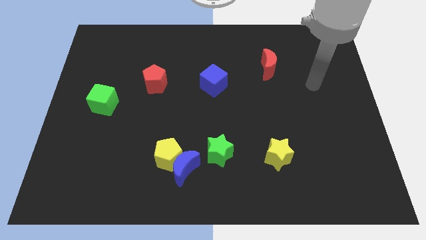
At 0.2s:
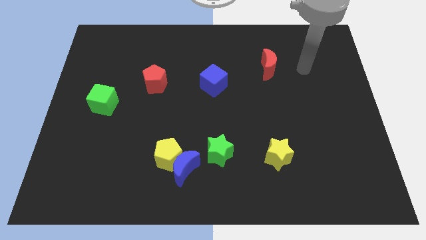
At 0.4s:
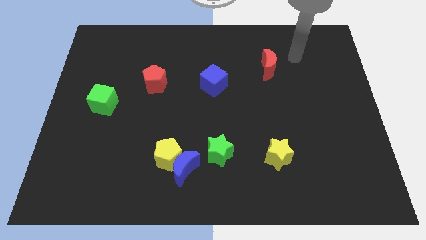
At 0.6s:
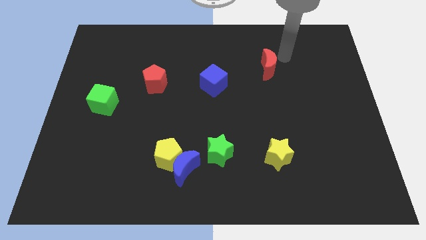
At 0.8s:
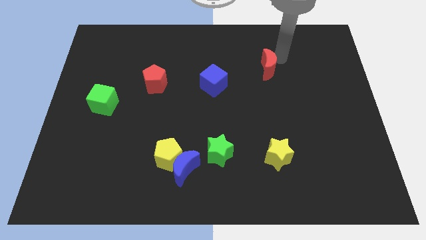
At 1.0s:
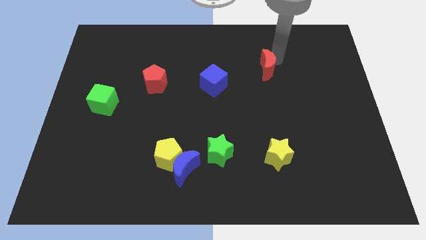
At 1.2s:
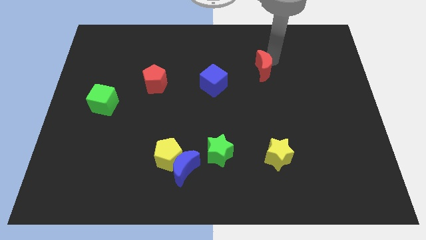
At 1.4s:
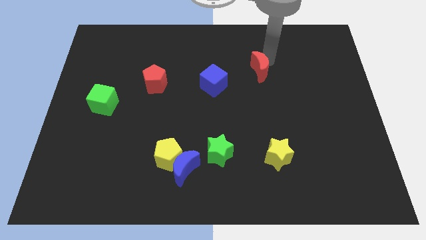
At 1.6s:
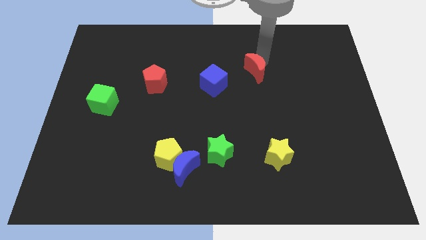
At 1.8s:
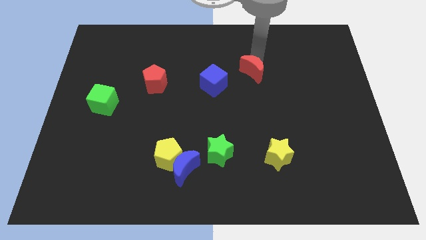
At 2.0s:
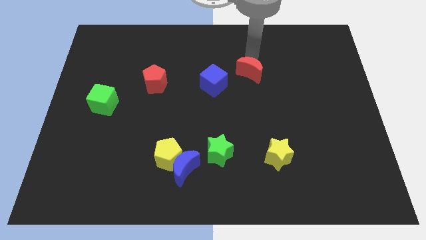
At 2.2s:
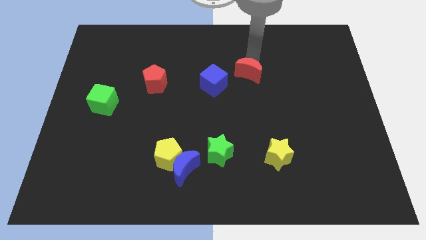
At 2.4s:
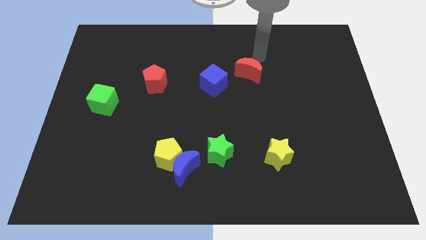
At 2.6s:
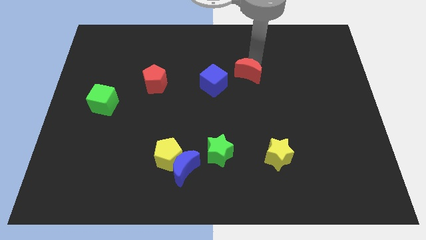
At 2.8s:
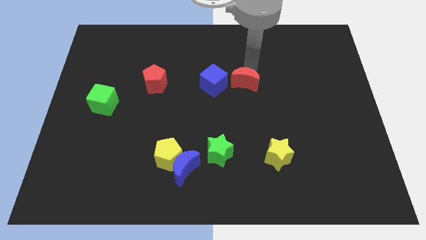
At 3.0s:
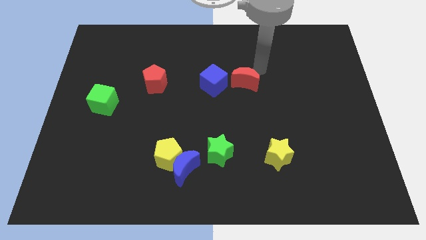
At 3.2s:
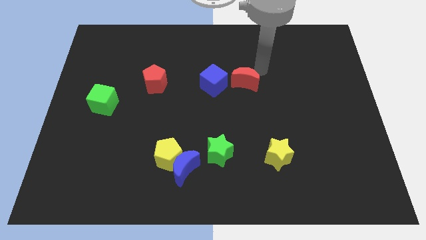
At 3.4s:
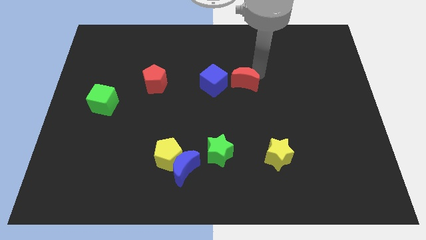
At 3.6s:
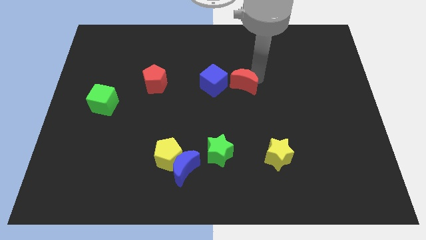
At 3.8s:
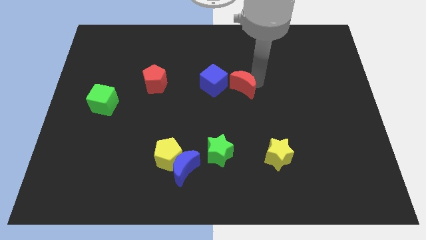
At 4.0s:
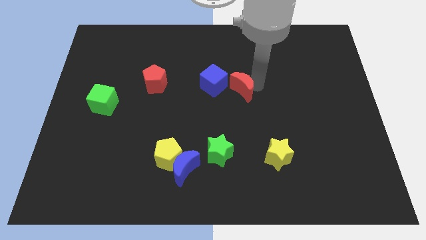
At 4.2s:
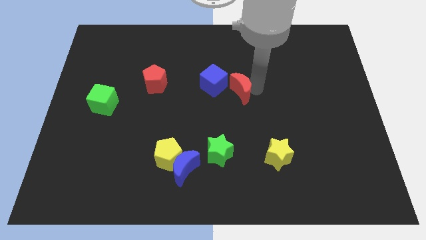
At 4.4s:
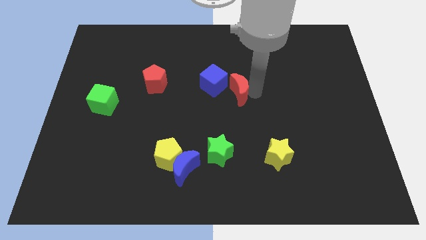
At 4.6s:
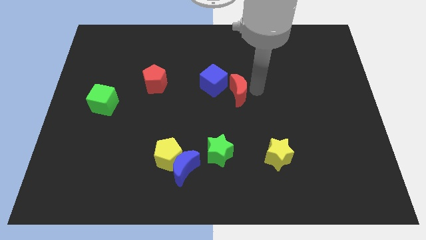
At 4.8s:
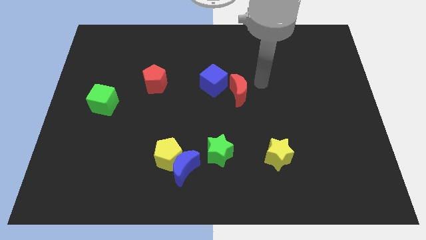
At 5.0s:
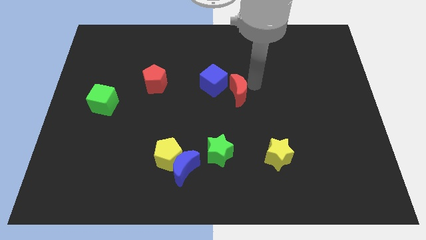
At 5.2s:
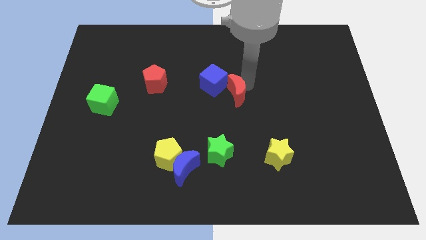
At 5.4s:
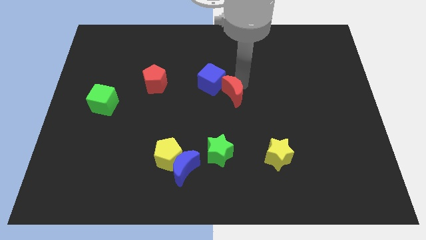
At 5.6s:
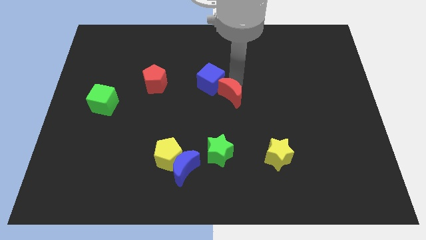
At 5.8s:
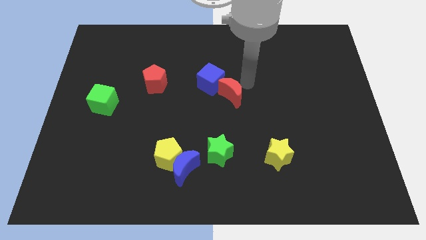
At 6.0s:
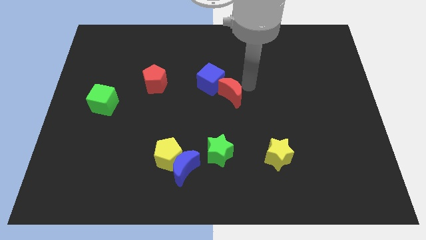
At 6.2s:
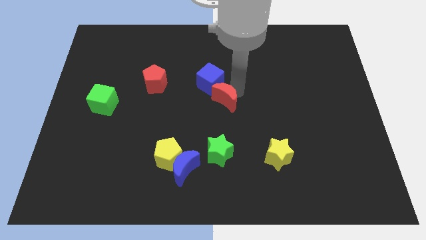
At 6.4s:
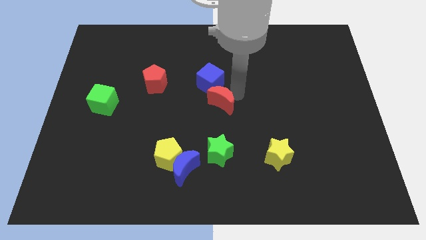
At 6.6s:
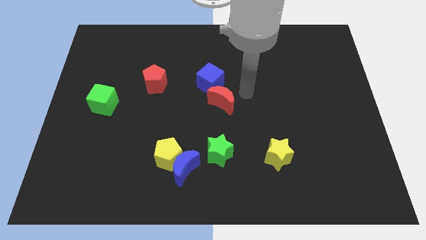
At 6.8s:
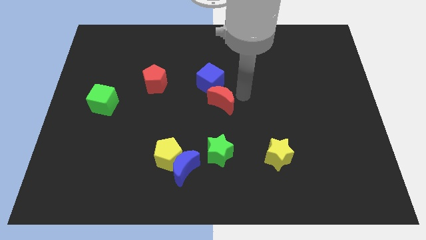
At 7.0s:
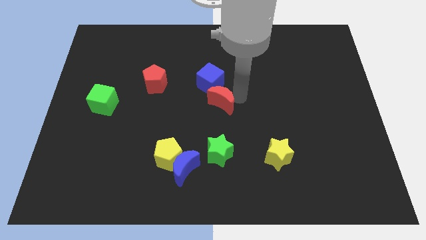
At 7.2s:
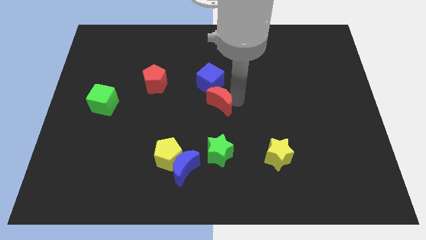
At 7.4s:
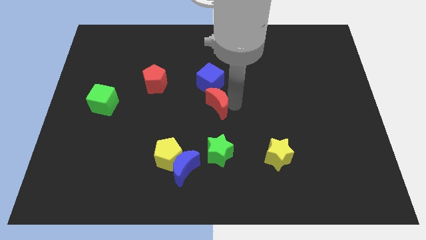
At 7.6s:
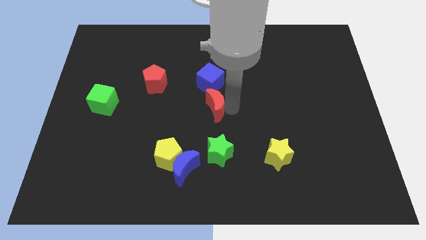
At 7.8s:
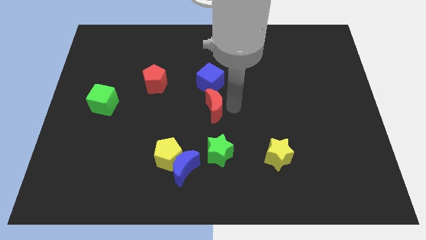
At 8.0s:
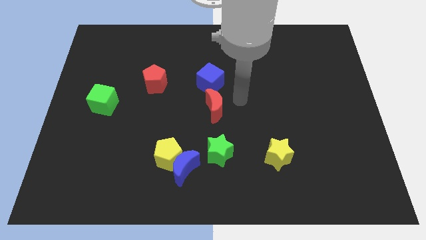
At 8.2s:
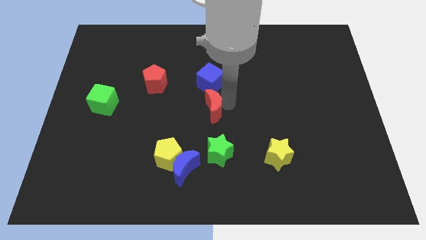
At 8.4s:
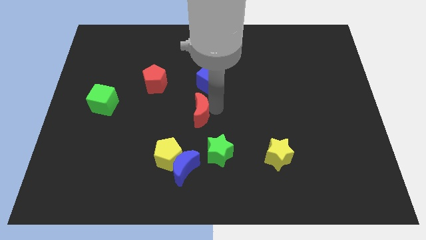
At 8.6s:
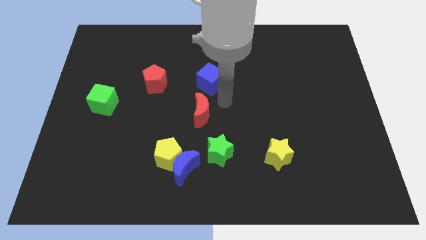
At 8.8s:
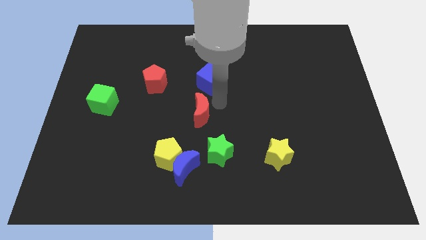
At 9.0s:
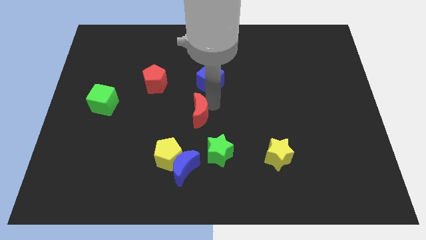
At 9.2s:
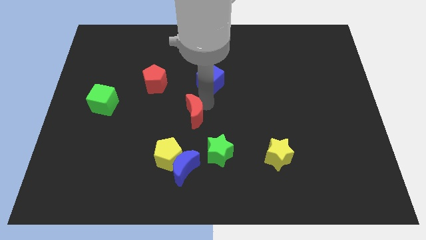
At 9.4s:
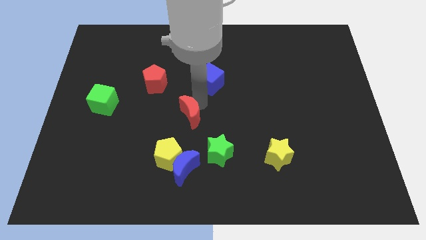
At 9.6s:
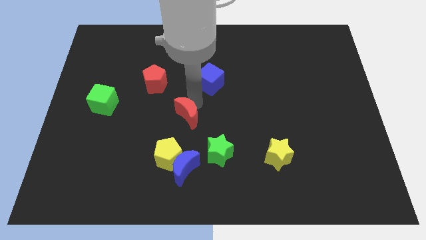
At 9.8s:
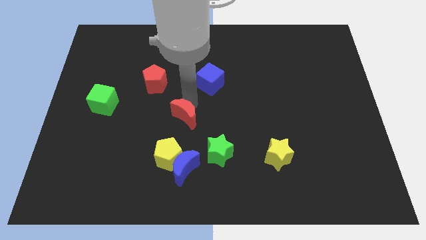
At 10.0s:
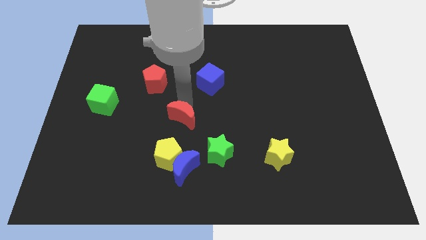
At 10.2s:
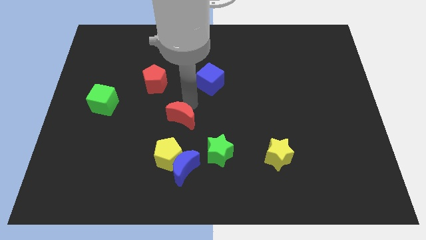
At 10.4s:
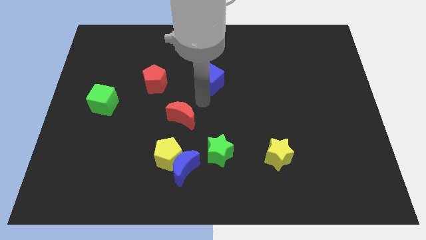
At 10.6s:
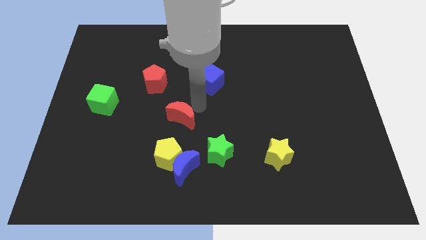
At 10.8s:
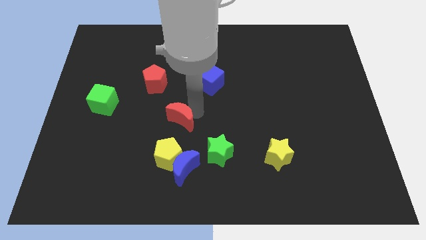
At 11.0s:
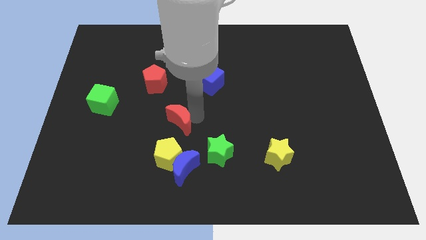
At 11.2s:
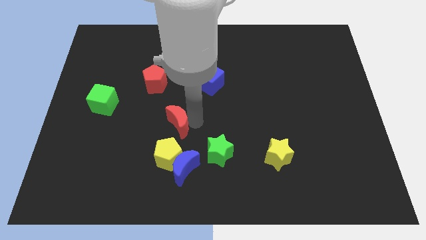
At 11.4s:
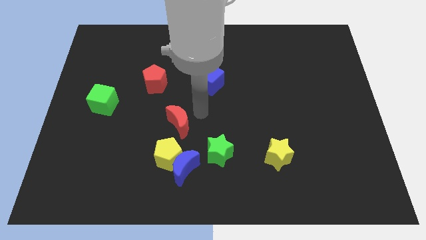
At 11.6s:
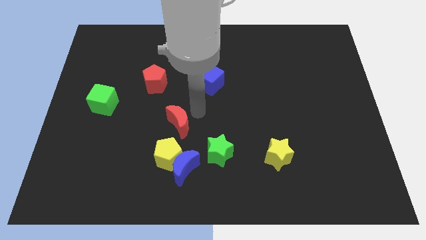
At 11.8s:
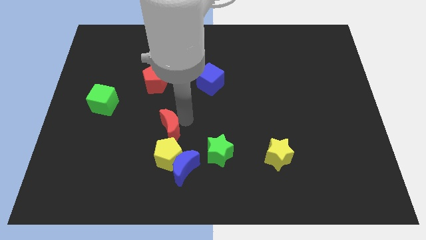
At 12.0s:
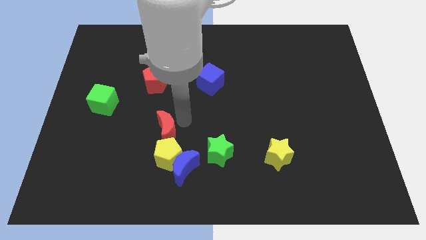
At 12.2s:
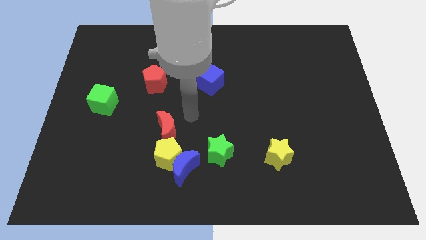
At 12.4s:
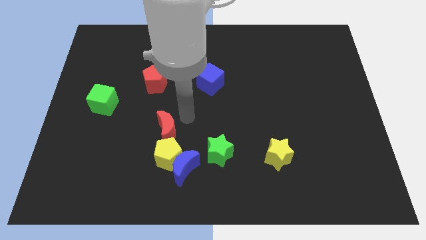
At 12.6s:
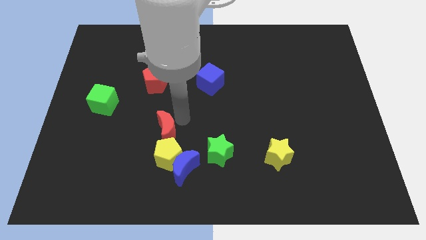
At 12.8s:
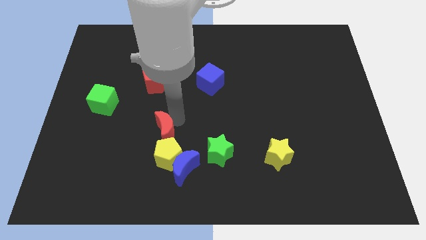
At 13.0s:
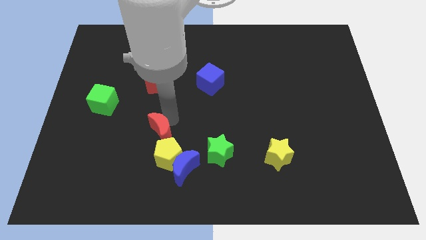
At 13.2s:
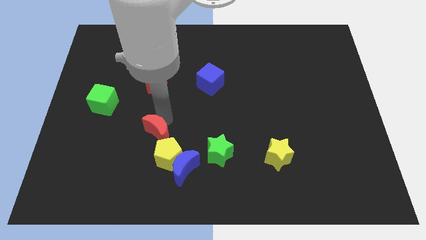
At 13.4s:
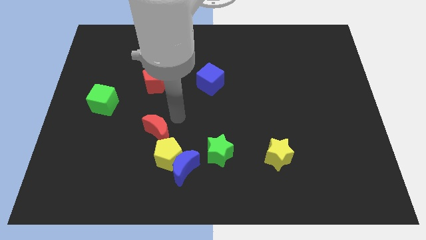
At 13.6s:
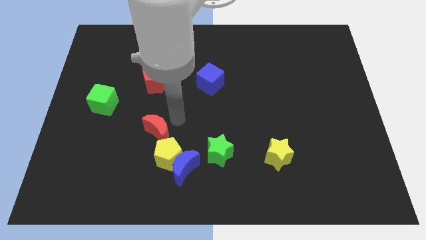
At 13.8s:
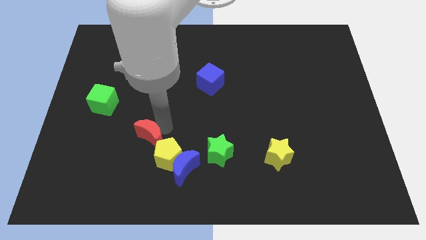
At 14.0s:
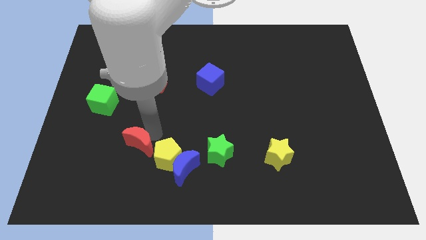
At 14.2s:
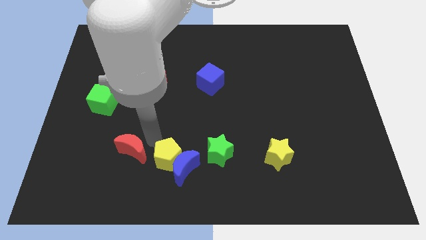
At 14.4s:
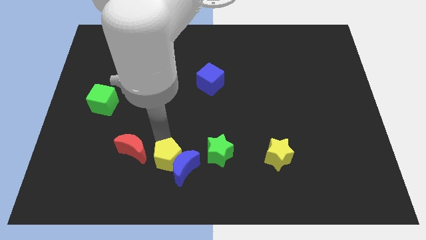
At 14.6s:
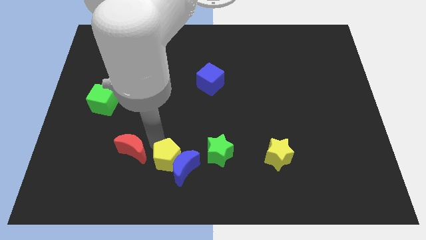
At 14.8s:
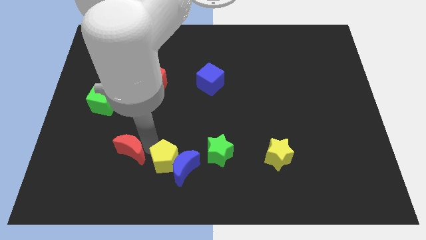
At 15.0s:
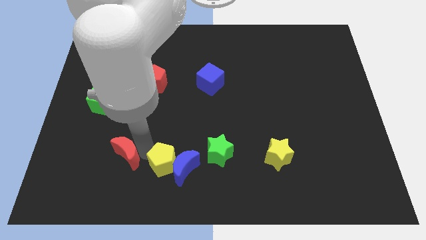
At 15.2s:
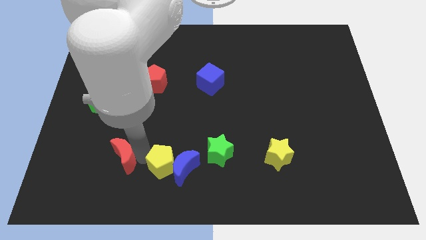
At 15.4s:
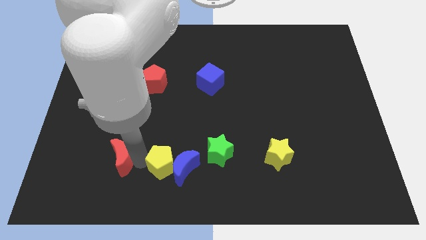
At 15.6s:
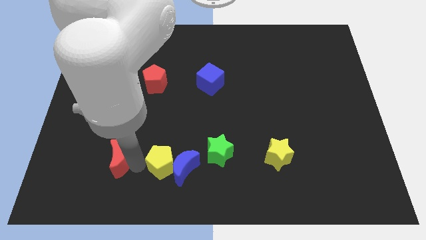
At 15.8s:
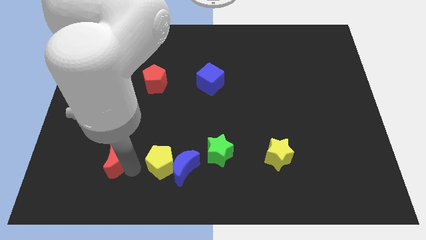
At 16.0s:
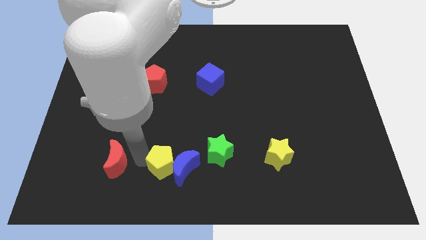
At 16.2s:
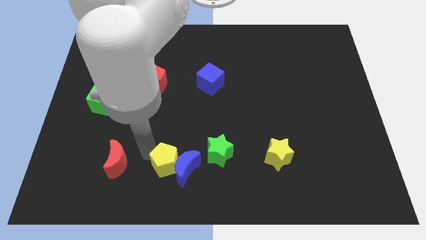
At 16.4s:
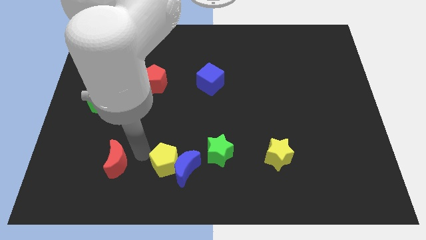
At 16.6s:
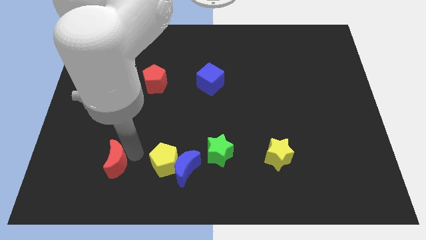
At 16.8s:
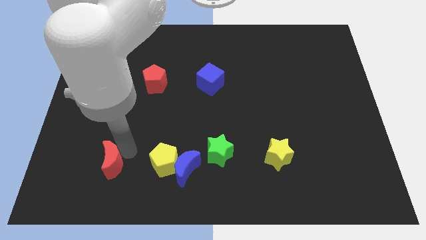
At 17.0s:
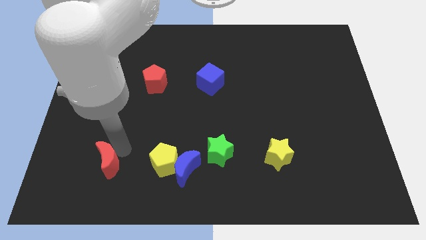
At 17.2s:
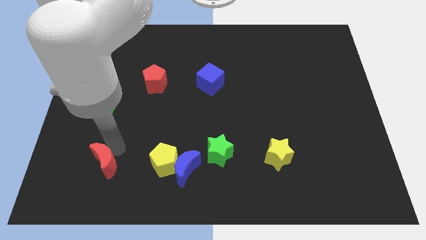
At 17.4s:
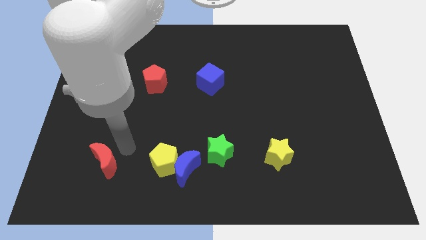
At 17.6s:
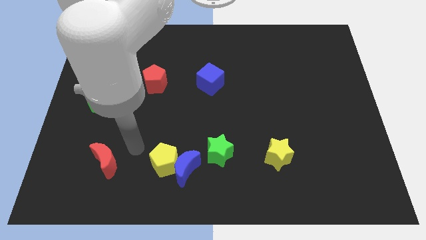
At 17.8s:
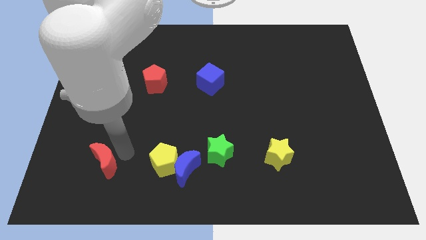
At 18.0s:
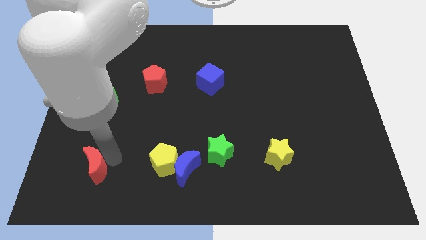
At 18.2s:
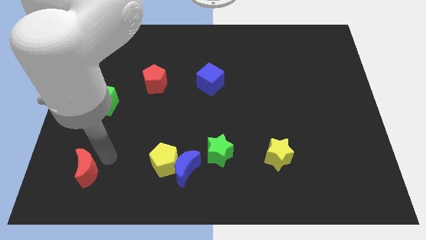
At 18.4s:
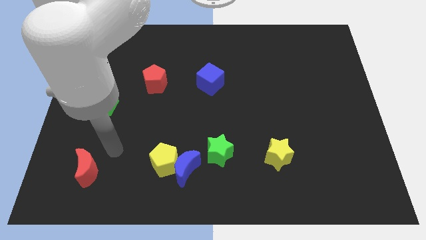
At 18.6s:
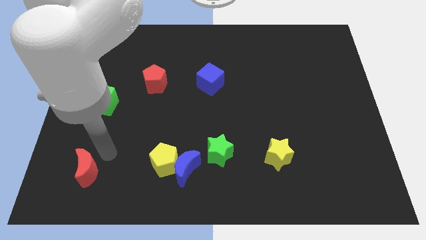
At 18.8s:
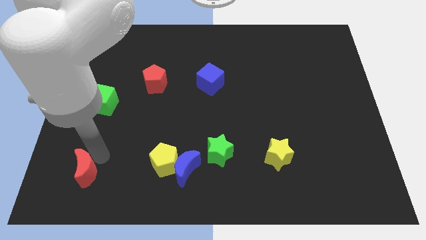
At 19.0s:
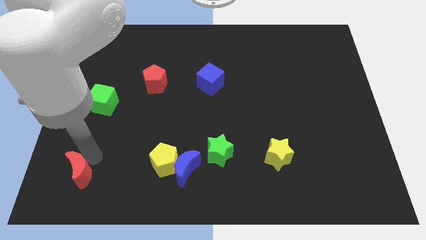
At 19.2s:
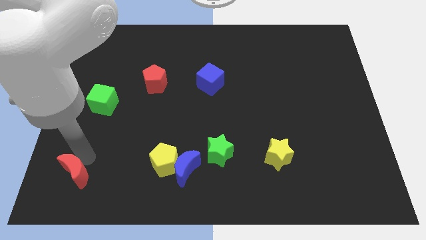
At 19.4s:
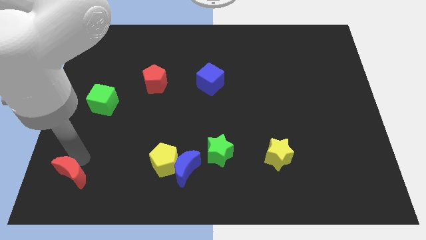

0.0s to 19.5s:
push the red moon to the bottom left
